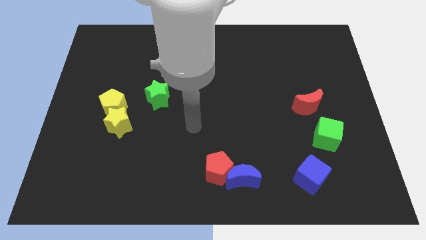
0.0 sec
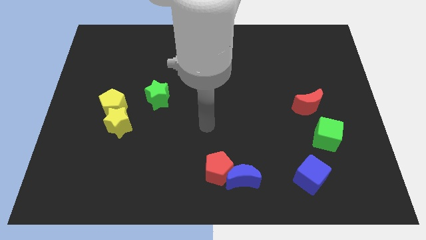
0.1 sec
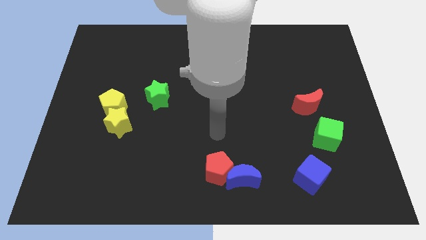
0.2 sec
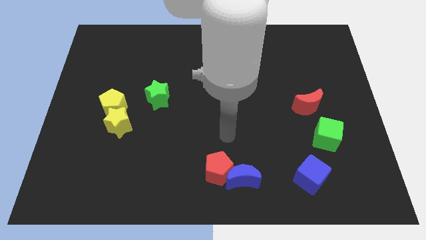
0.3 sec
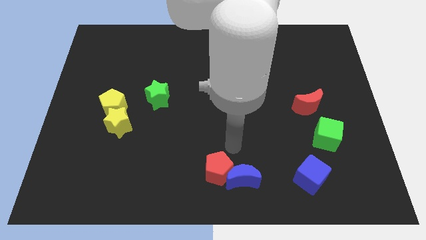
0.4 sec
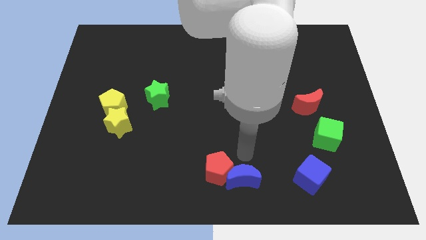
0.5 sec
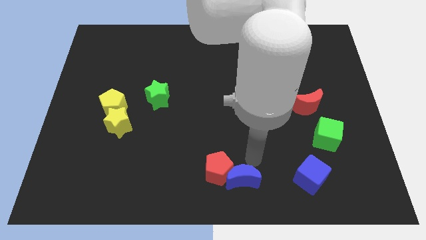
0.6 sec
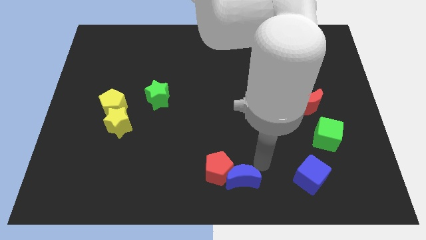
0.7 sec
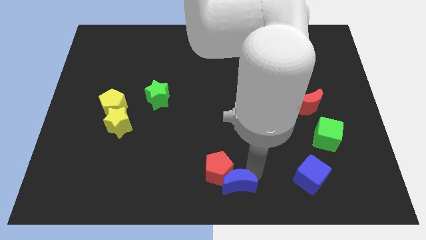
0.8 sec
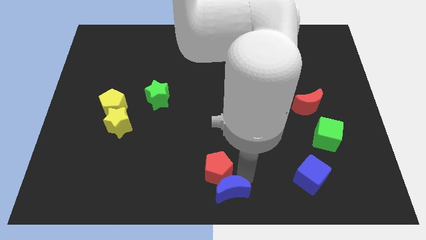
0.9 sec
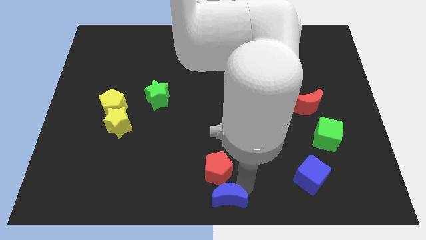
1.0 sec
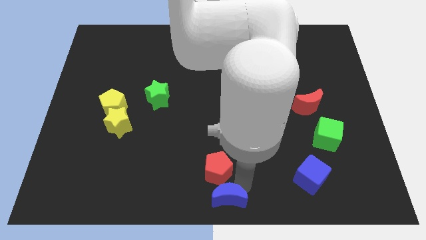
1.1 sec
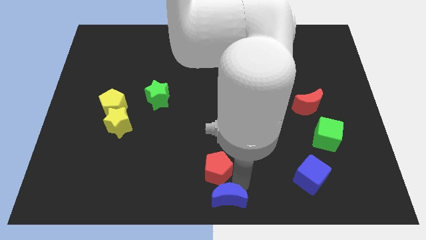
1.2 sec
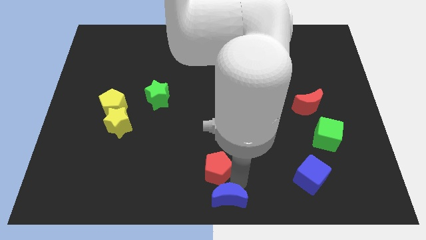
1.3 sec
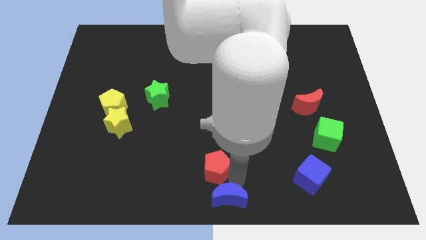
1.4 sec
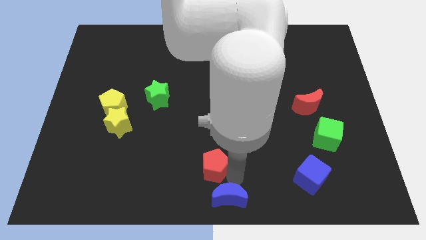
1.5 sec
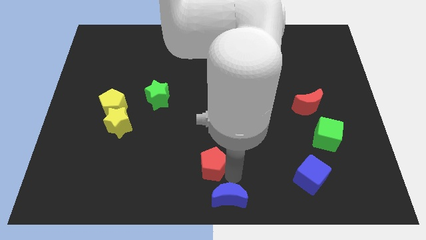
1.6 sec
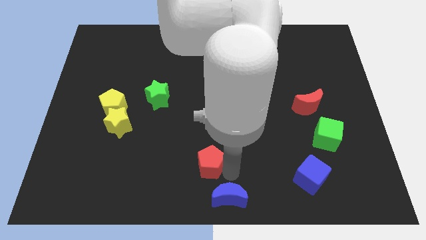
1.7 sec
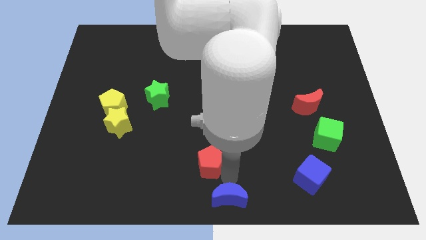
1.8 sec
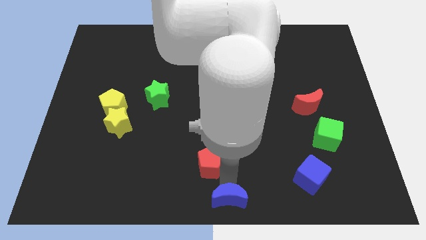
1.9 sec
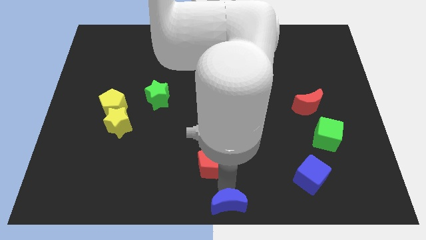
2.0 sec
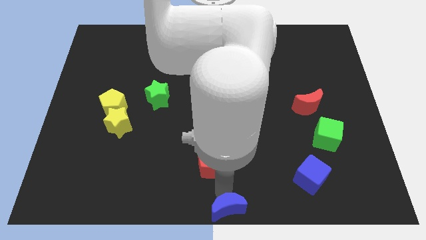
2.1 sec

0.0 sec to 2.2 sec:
pull the red pentagon apart from the blue moon

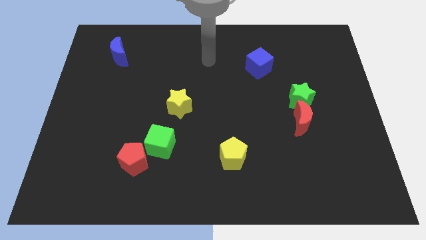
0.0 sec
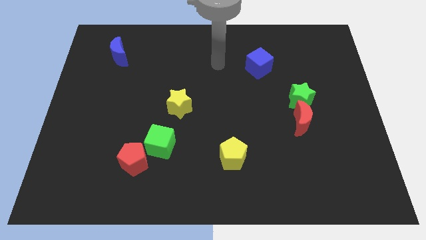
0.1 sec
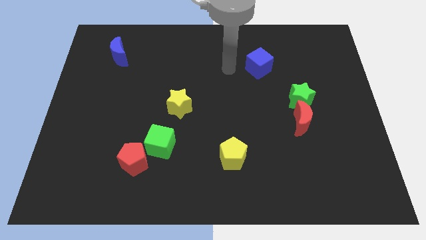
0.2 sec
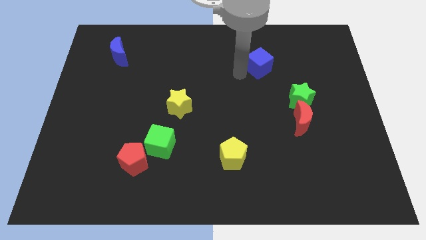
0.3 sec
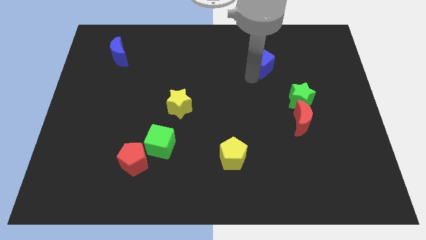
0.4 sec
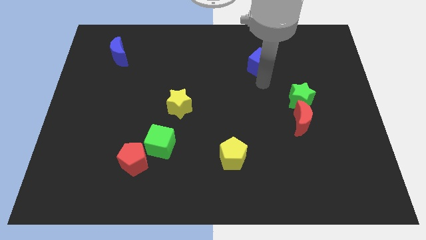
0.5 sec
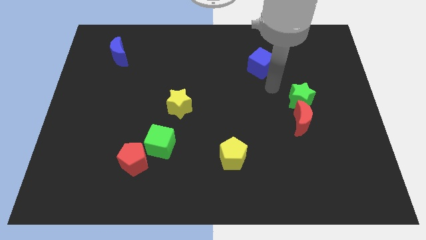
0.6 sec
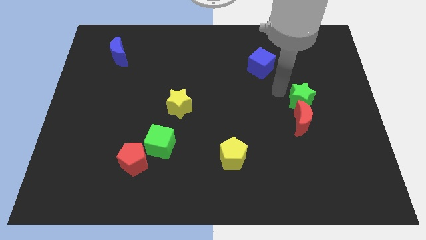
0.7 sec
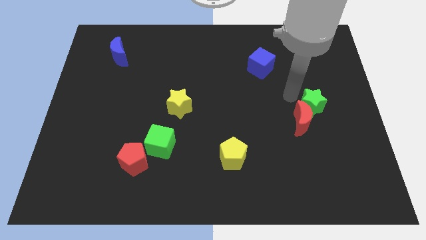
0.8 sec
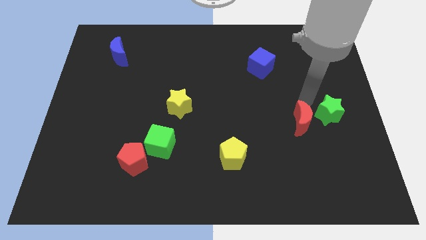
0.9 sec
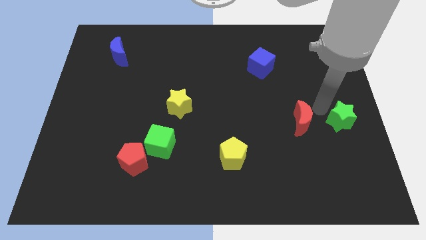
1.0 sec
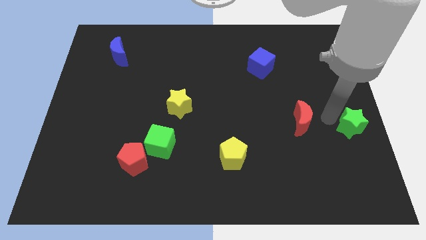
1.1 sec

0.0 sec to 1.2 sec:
pull the red moon apart from the green star

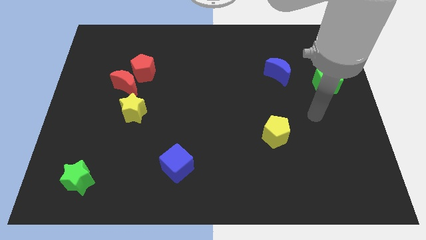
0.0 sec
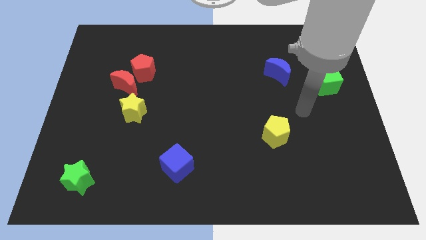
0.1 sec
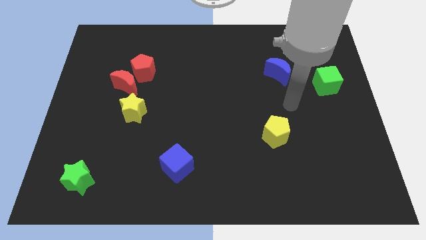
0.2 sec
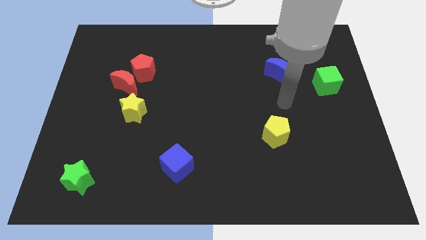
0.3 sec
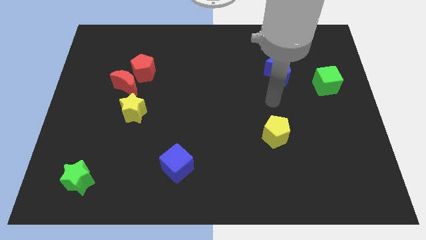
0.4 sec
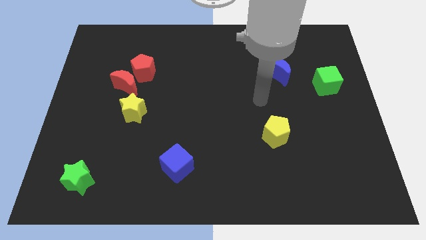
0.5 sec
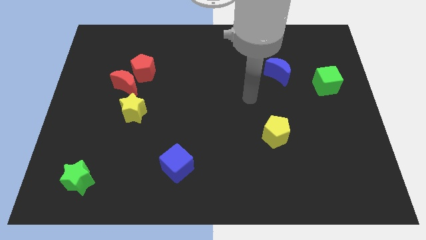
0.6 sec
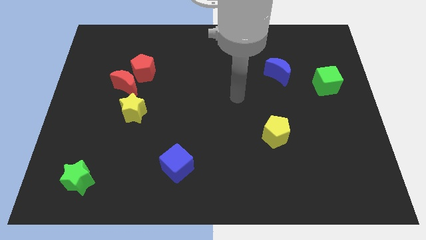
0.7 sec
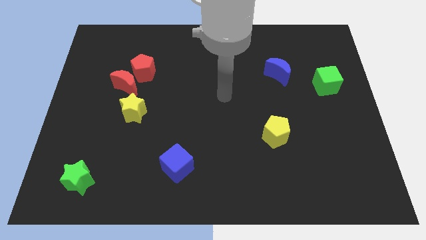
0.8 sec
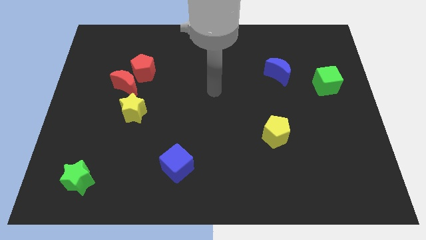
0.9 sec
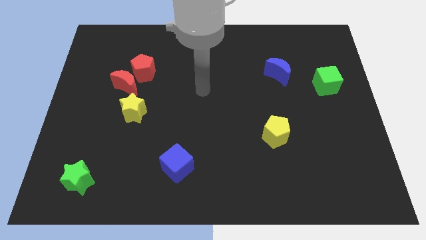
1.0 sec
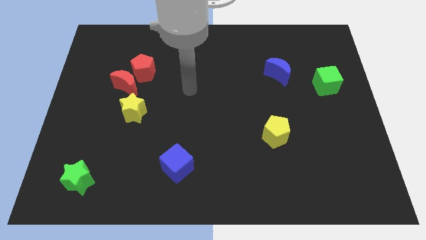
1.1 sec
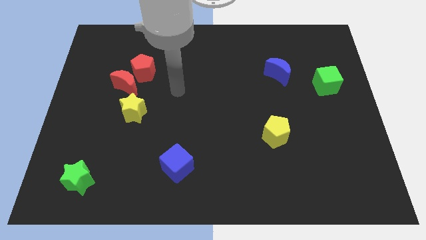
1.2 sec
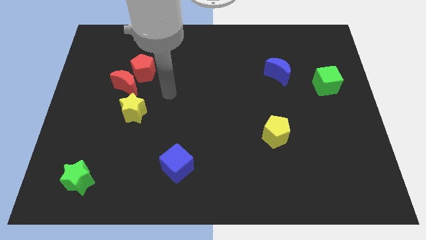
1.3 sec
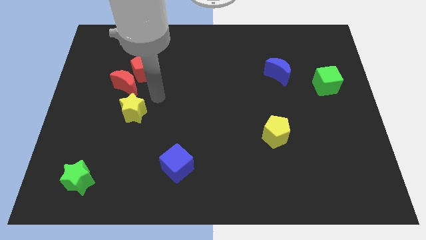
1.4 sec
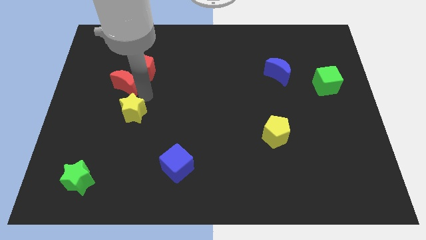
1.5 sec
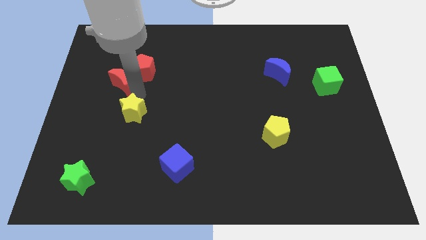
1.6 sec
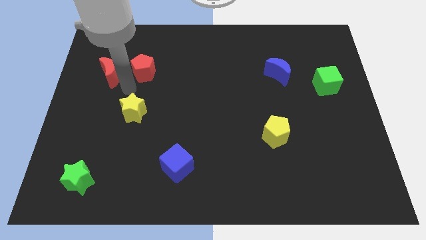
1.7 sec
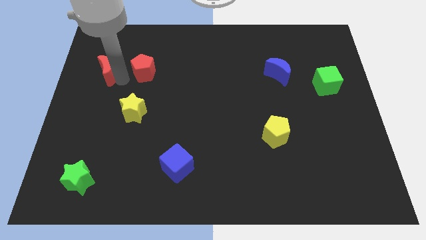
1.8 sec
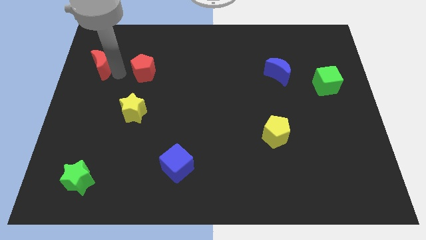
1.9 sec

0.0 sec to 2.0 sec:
separate the red pentagon from the red moon

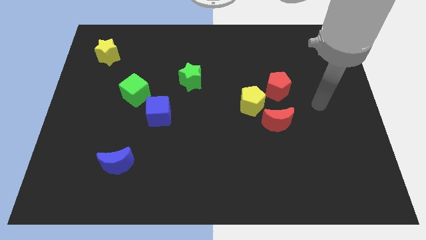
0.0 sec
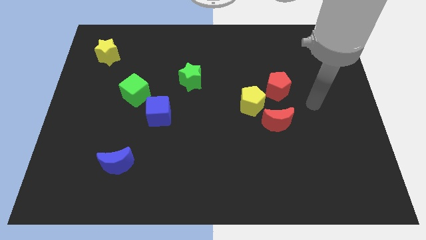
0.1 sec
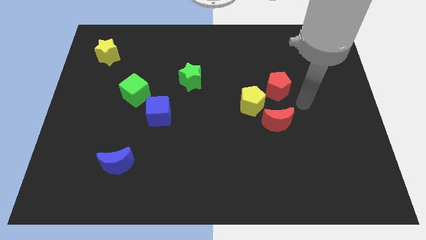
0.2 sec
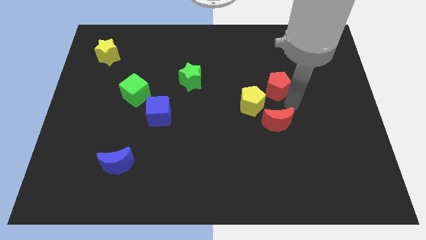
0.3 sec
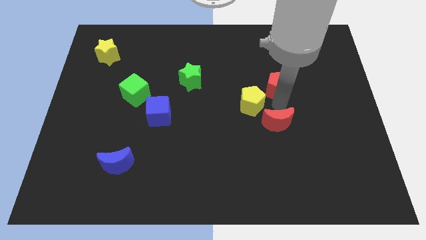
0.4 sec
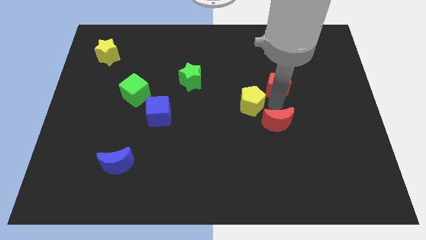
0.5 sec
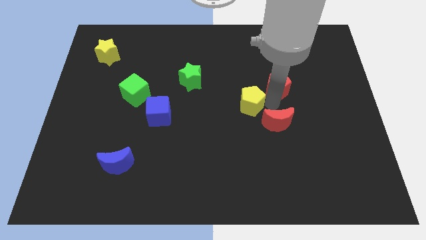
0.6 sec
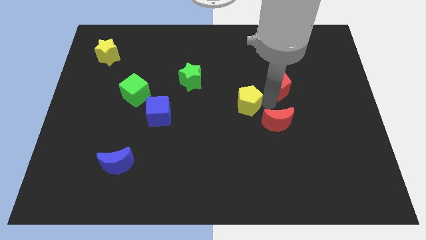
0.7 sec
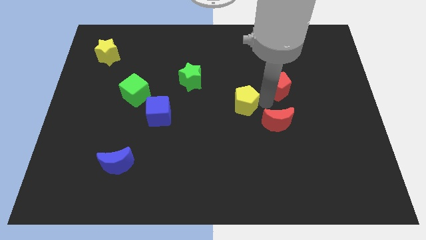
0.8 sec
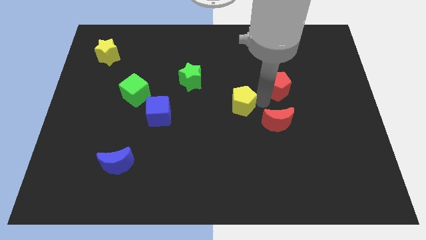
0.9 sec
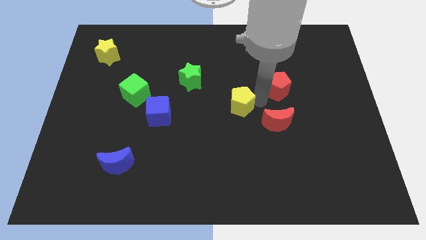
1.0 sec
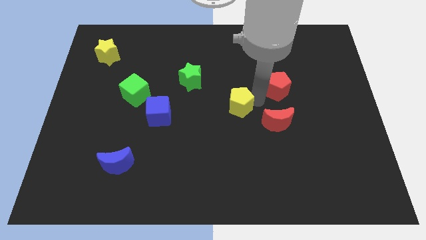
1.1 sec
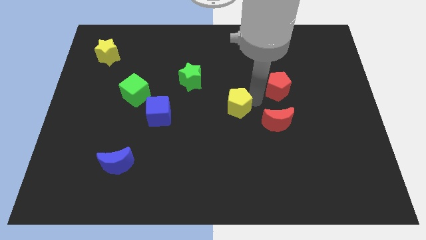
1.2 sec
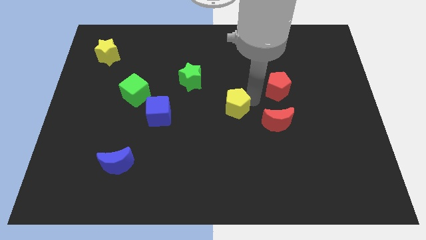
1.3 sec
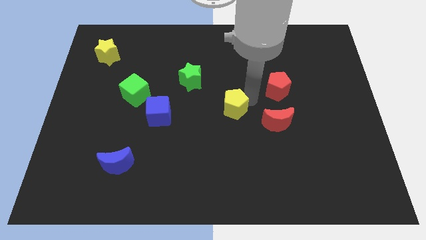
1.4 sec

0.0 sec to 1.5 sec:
separate the yellow pentagon from the red moon and red pentagon

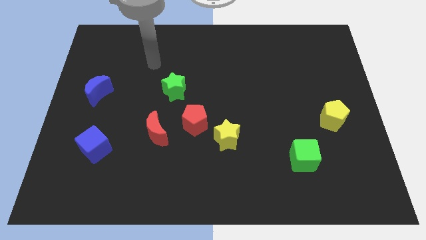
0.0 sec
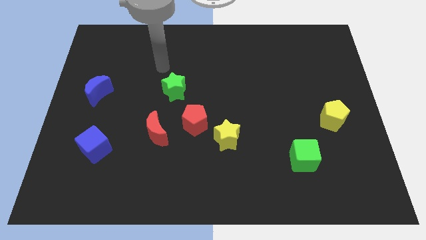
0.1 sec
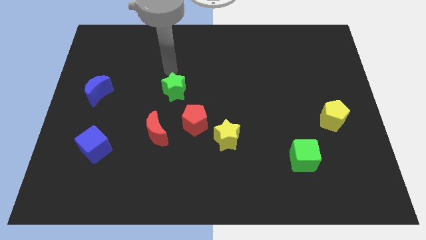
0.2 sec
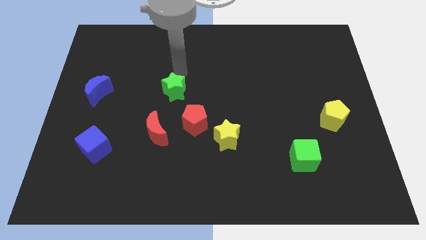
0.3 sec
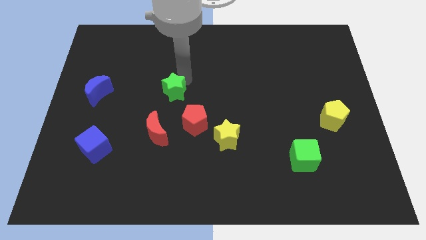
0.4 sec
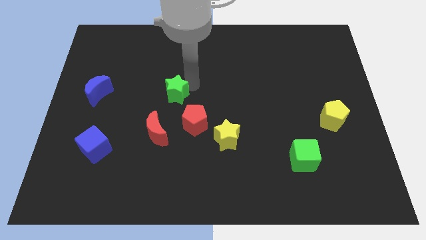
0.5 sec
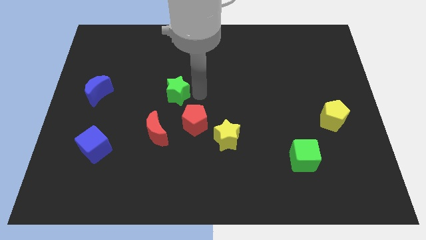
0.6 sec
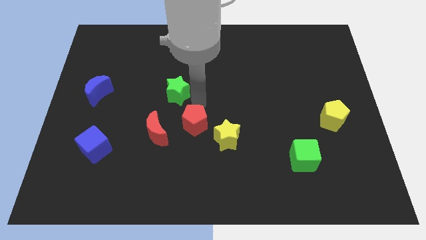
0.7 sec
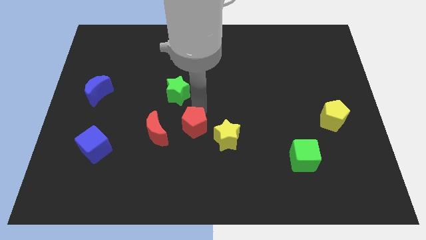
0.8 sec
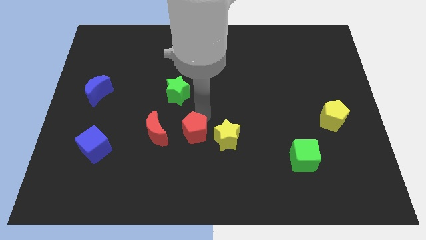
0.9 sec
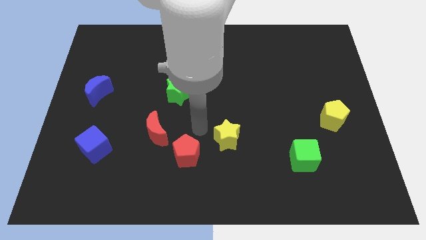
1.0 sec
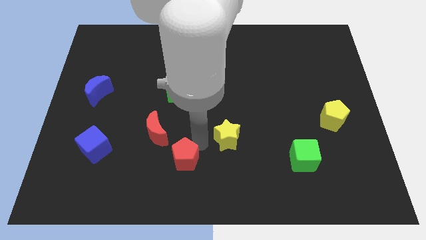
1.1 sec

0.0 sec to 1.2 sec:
move the yellow star away from the red pentagon

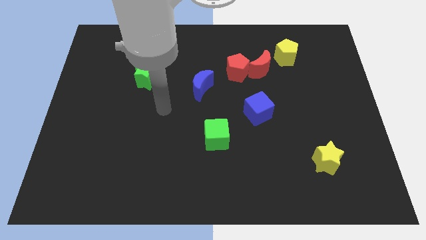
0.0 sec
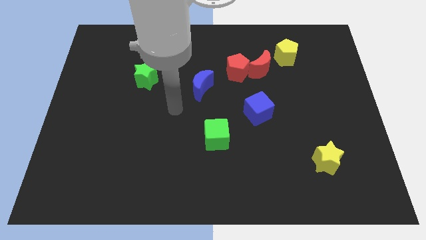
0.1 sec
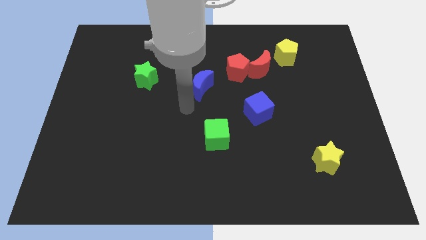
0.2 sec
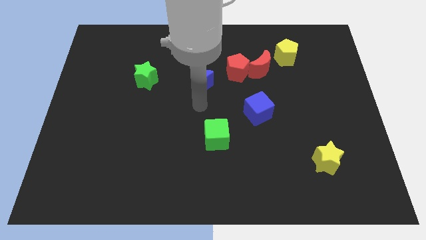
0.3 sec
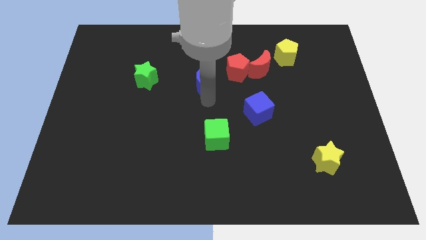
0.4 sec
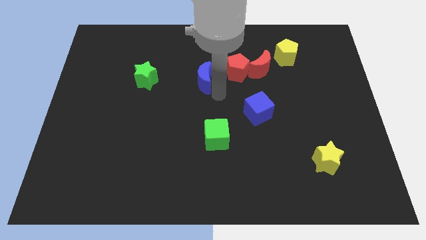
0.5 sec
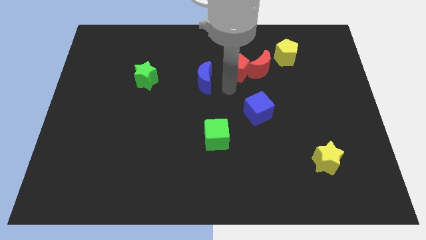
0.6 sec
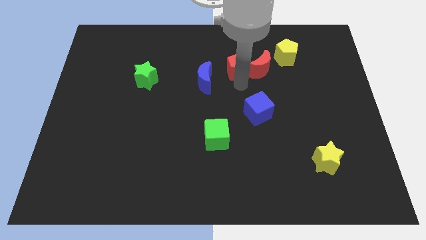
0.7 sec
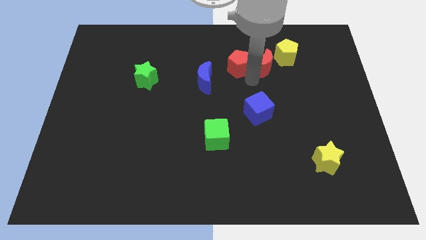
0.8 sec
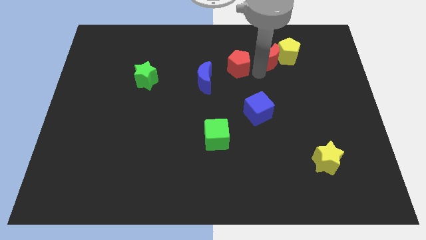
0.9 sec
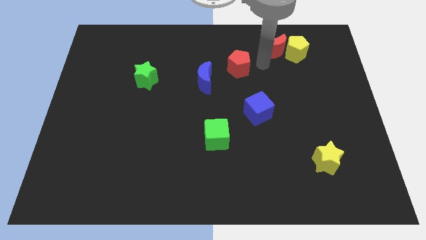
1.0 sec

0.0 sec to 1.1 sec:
move the red pentagon away from the red moon
